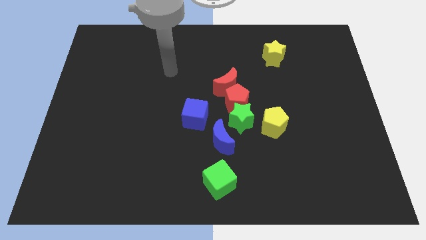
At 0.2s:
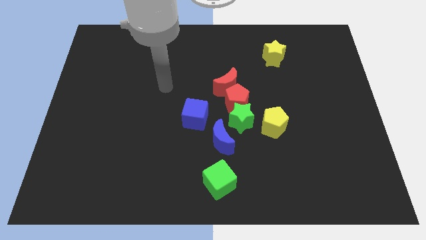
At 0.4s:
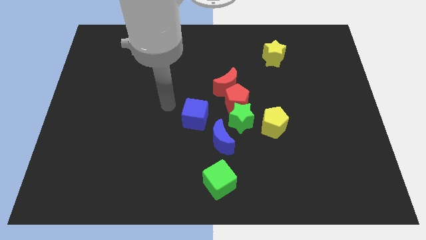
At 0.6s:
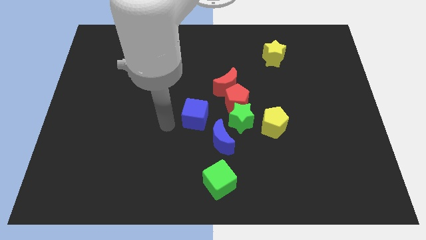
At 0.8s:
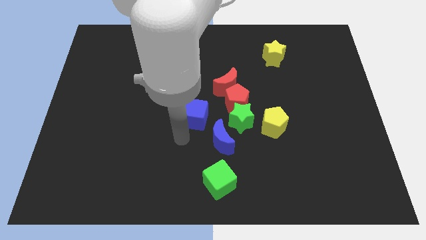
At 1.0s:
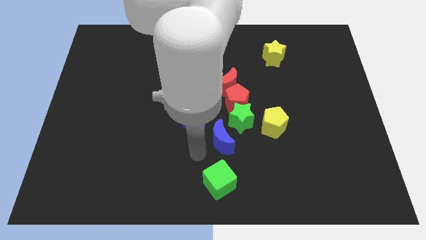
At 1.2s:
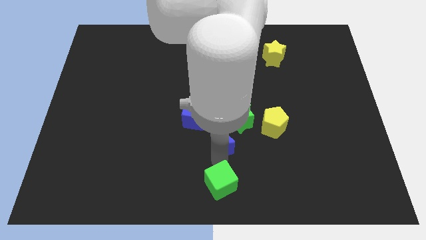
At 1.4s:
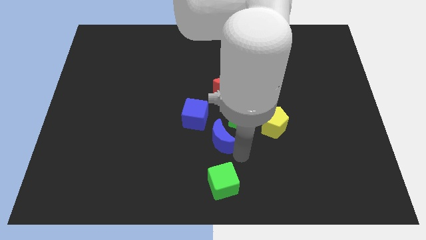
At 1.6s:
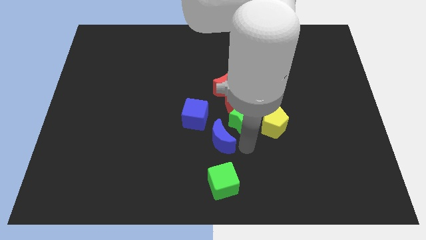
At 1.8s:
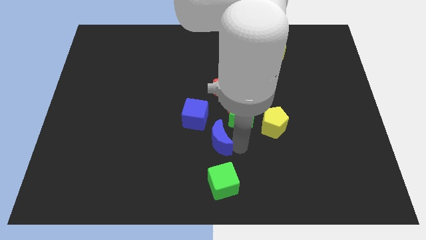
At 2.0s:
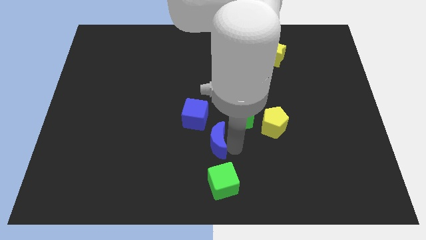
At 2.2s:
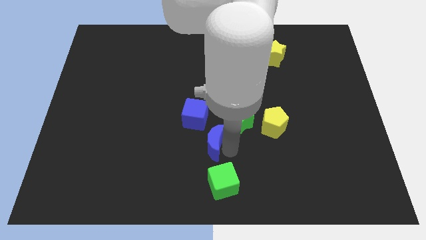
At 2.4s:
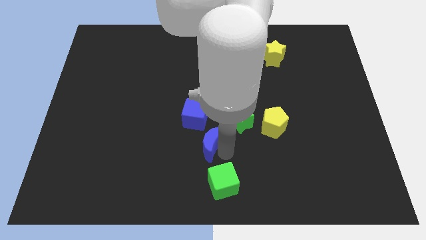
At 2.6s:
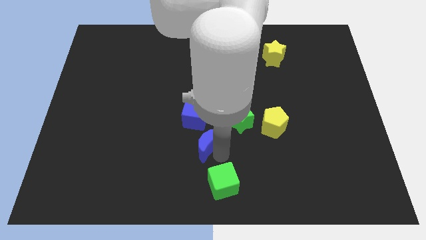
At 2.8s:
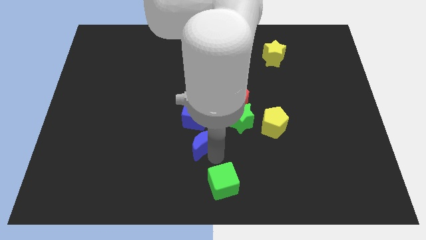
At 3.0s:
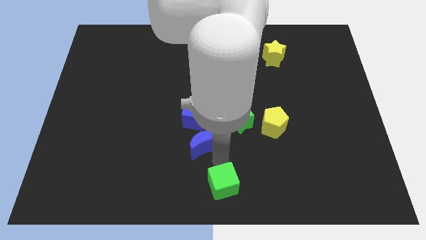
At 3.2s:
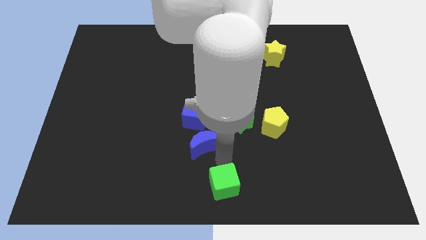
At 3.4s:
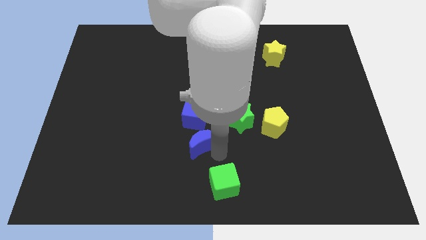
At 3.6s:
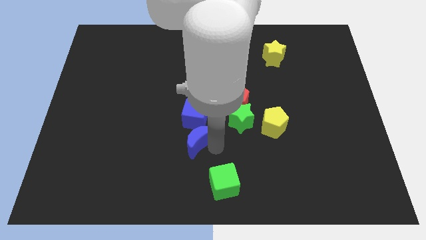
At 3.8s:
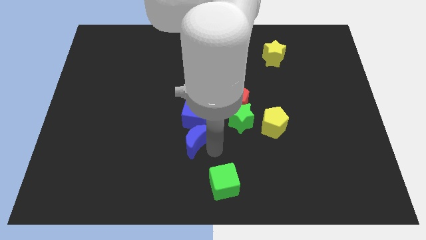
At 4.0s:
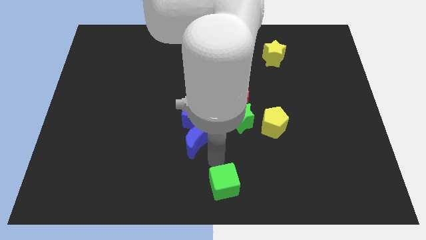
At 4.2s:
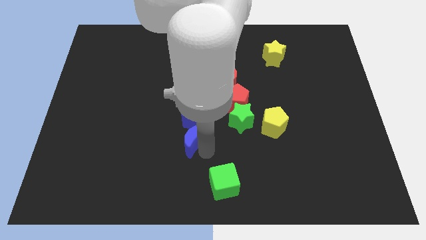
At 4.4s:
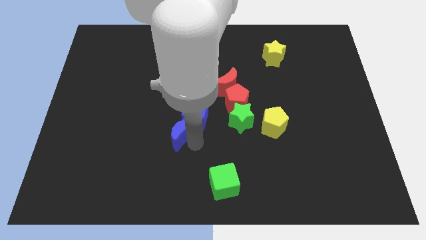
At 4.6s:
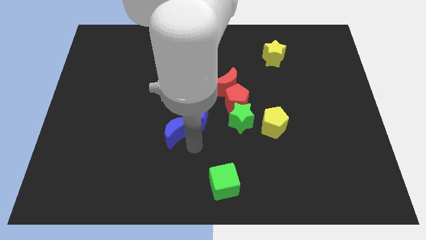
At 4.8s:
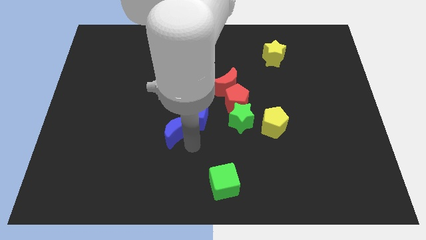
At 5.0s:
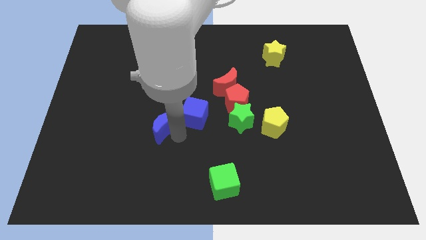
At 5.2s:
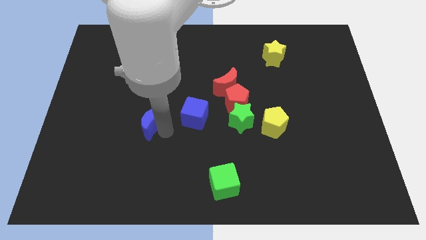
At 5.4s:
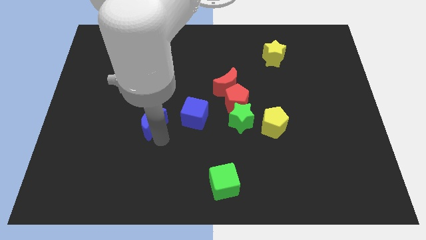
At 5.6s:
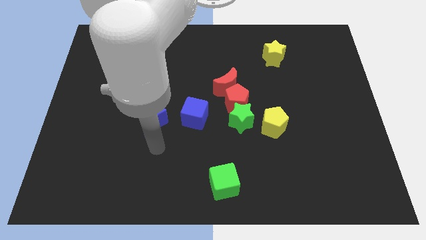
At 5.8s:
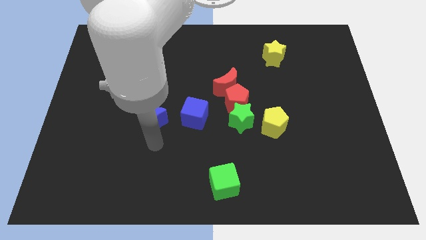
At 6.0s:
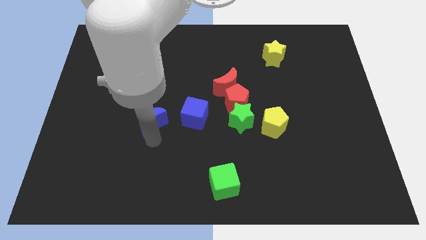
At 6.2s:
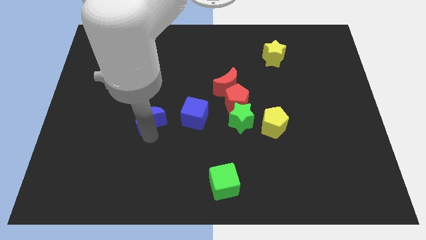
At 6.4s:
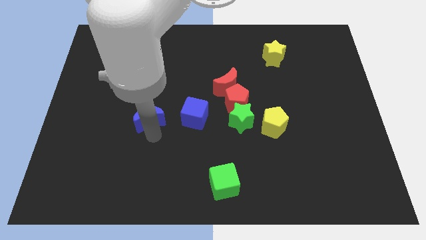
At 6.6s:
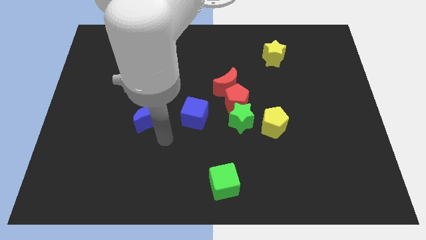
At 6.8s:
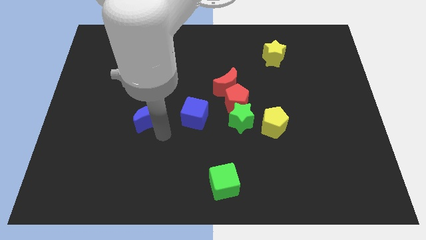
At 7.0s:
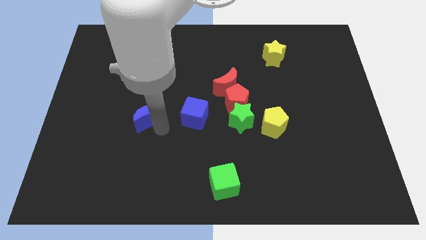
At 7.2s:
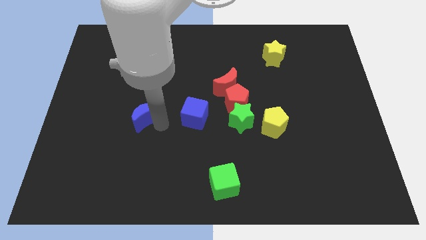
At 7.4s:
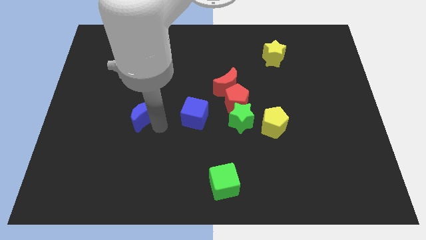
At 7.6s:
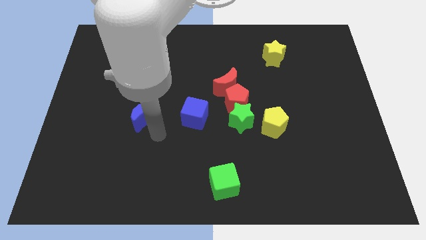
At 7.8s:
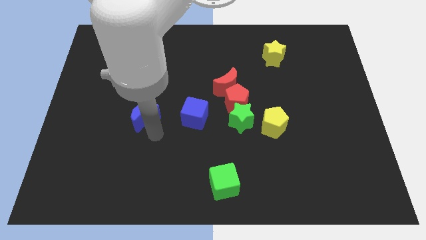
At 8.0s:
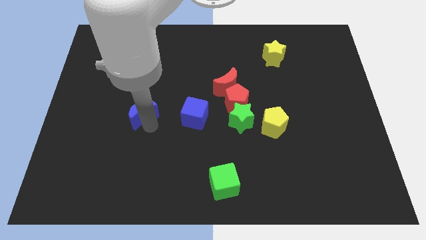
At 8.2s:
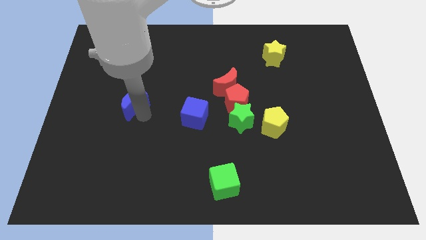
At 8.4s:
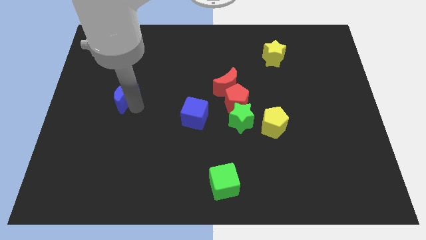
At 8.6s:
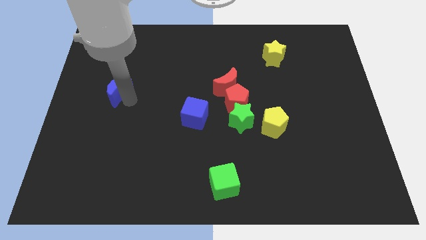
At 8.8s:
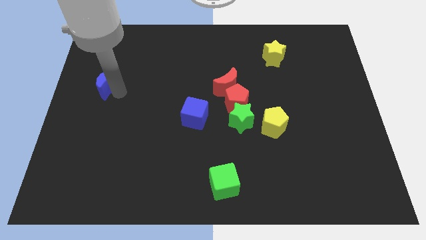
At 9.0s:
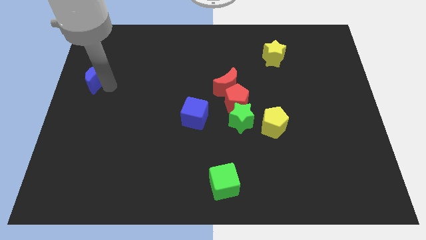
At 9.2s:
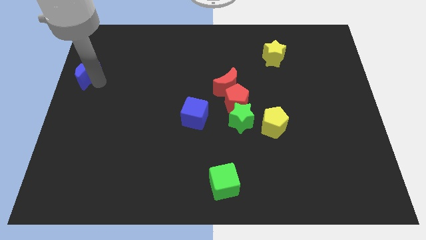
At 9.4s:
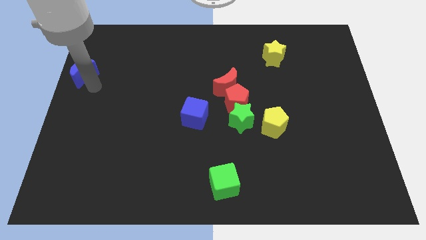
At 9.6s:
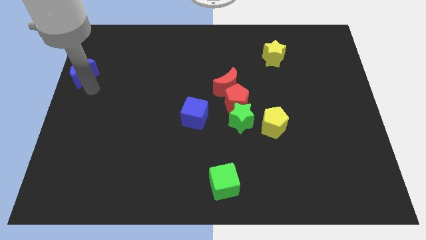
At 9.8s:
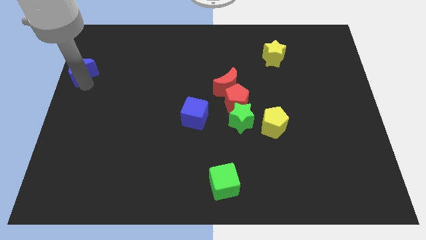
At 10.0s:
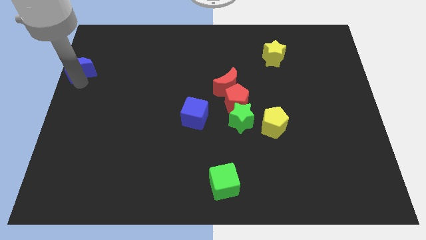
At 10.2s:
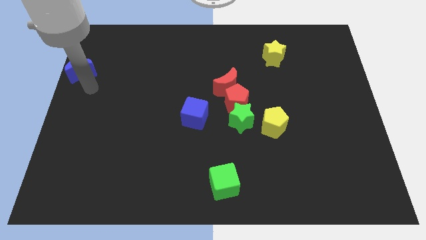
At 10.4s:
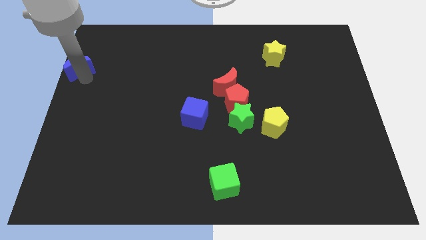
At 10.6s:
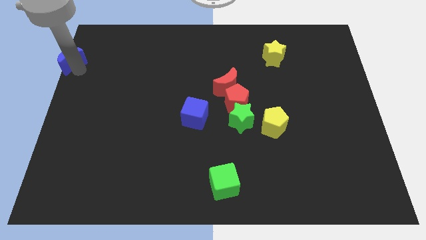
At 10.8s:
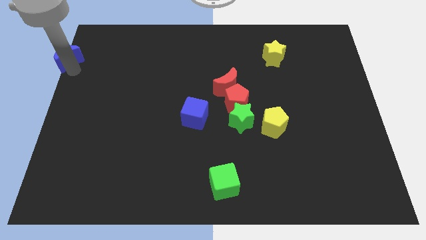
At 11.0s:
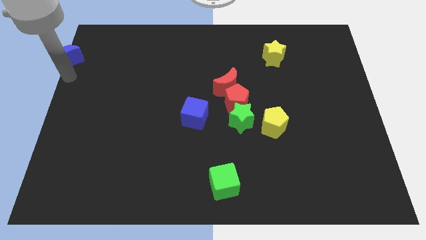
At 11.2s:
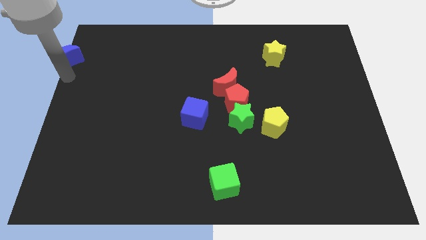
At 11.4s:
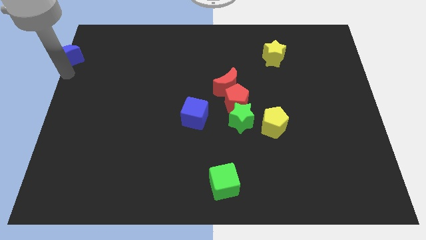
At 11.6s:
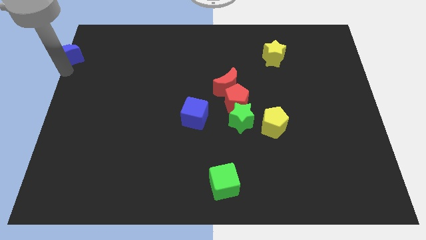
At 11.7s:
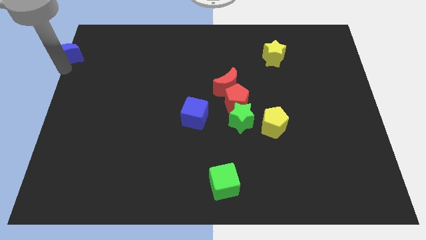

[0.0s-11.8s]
push the blue moon to the top left corner
